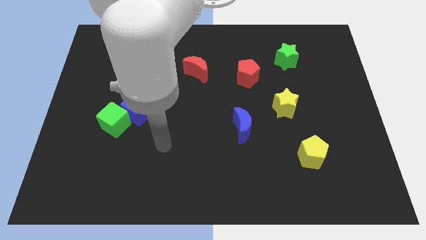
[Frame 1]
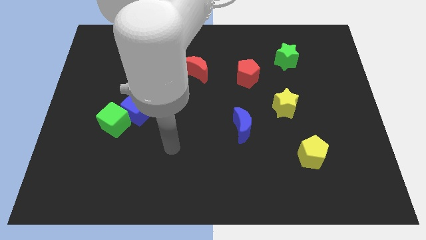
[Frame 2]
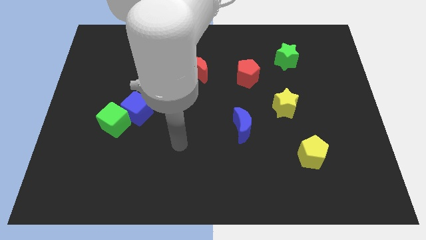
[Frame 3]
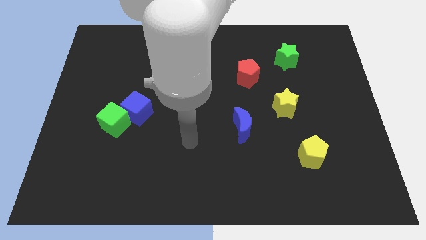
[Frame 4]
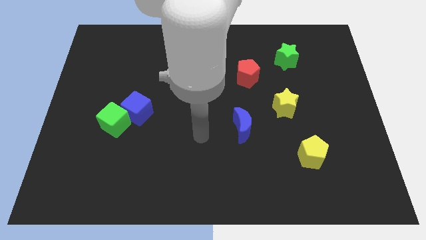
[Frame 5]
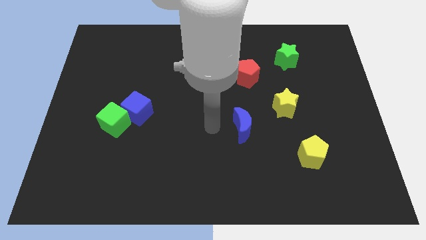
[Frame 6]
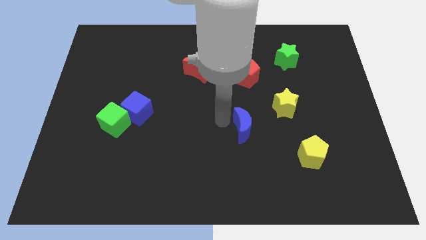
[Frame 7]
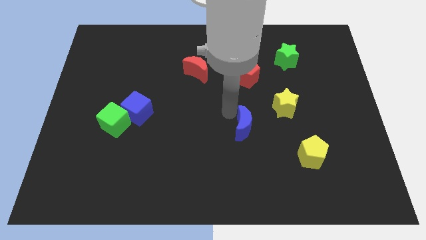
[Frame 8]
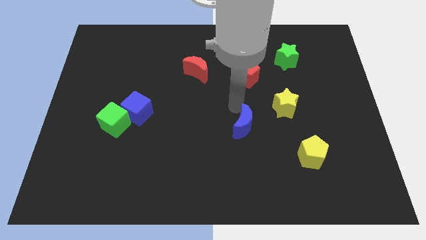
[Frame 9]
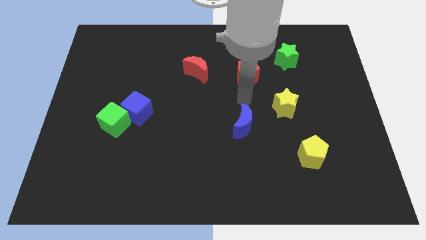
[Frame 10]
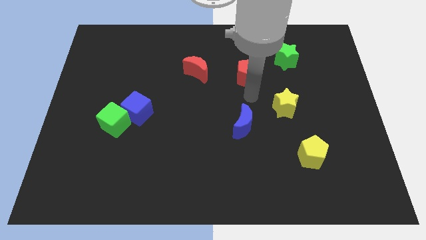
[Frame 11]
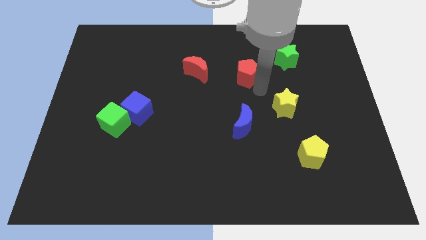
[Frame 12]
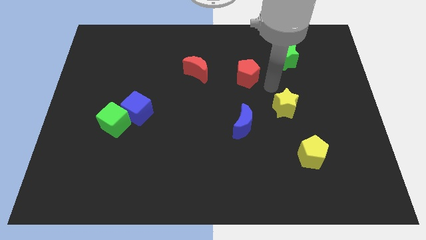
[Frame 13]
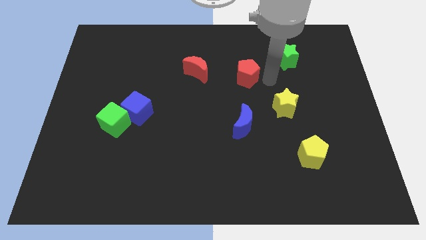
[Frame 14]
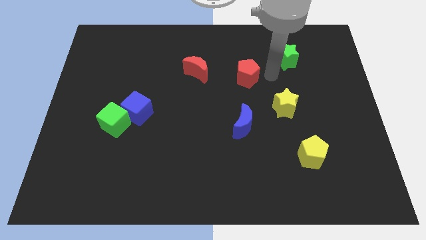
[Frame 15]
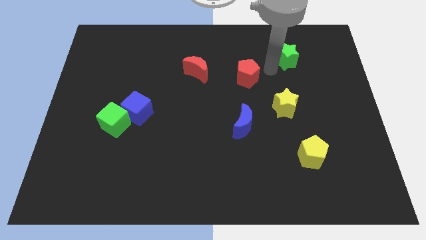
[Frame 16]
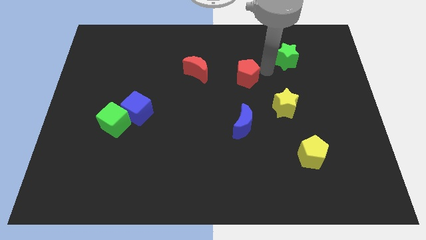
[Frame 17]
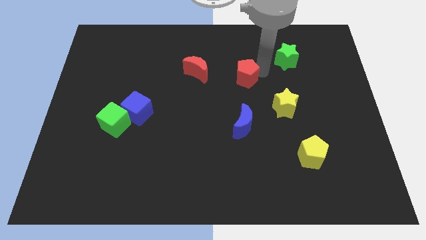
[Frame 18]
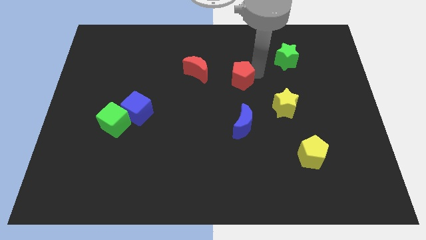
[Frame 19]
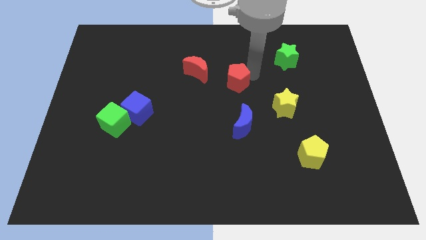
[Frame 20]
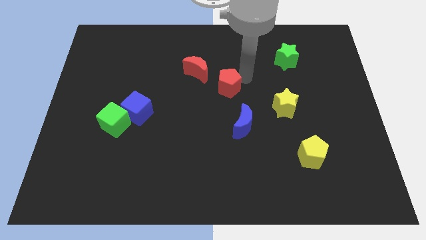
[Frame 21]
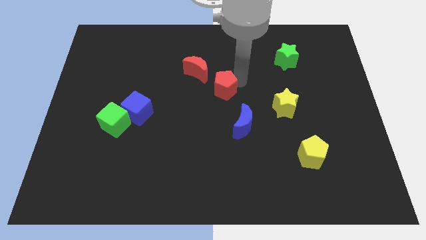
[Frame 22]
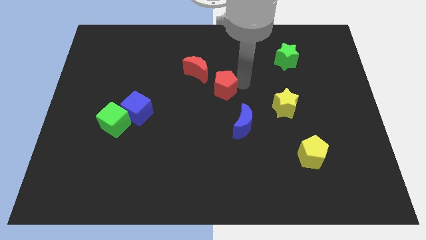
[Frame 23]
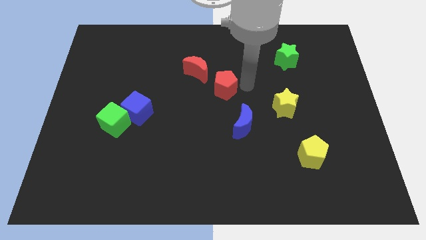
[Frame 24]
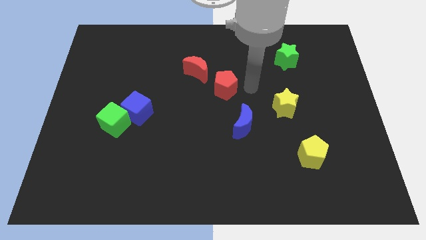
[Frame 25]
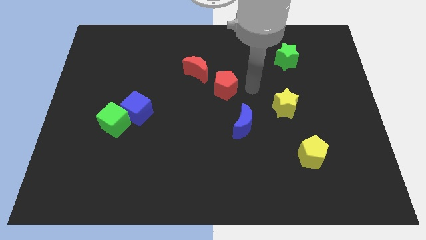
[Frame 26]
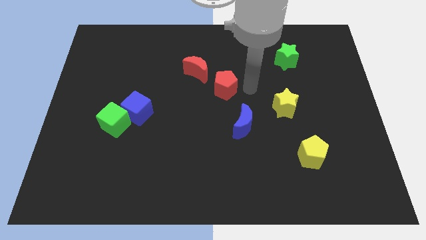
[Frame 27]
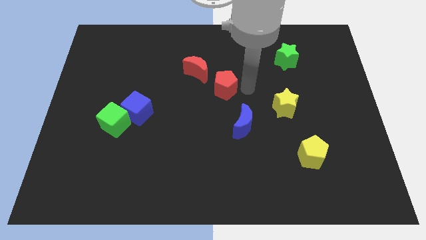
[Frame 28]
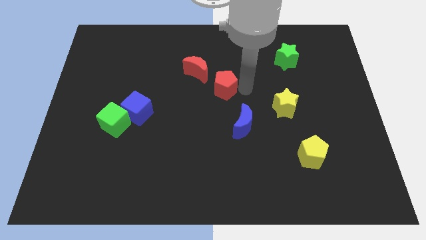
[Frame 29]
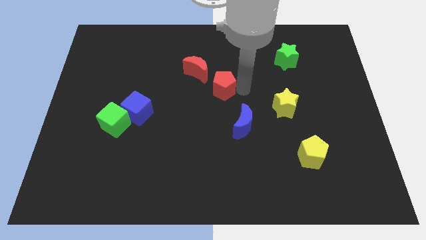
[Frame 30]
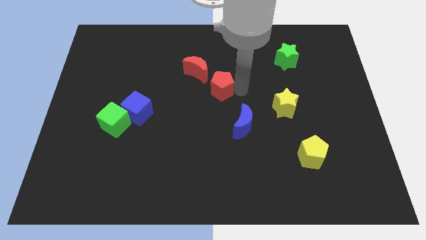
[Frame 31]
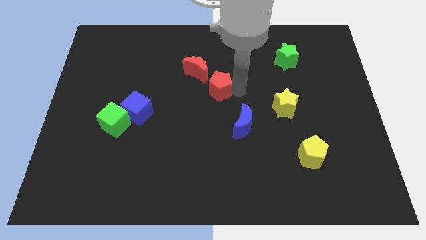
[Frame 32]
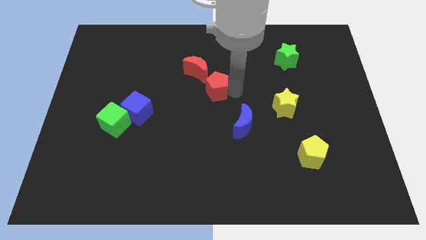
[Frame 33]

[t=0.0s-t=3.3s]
move the red pentagon to the left slightly

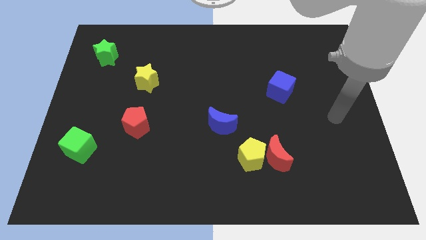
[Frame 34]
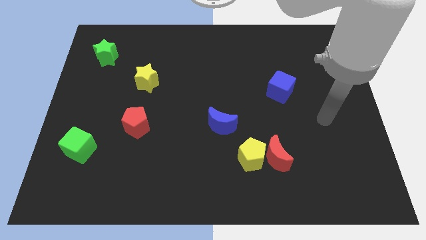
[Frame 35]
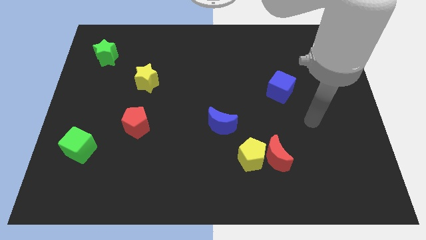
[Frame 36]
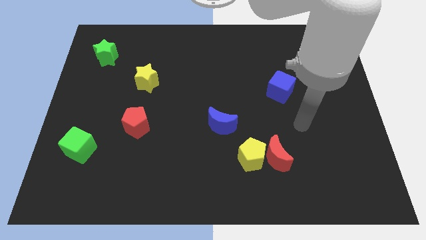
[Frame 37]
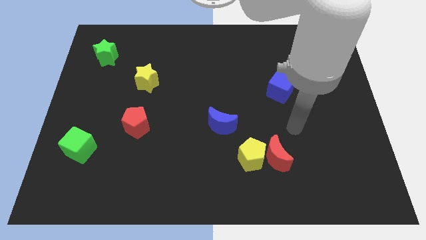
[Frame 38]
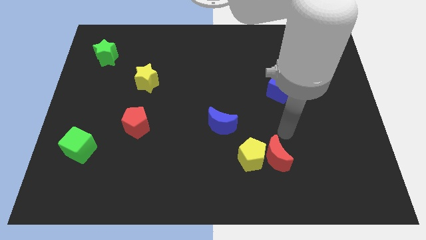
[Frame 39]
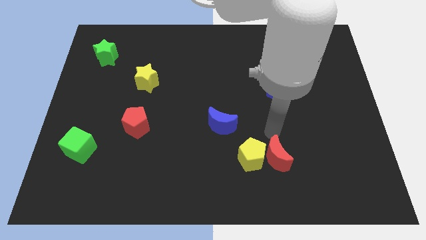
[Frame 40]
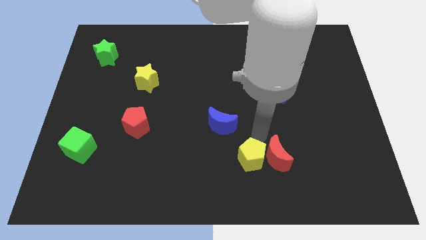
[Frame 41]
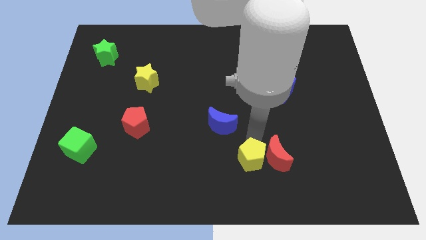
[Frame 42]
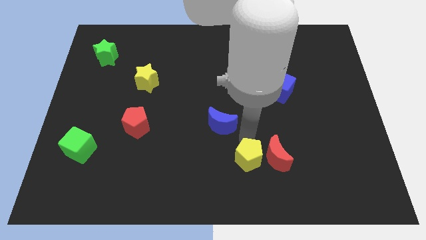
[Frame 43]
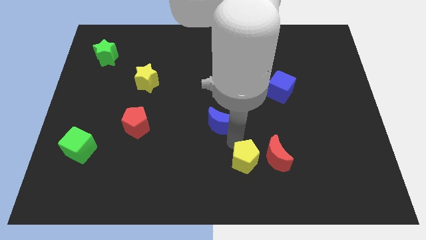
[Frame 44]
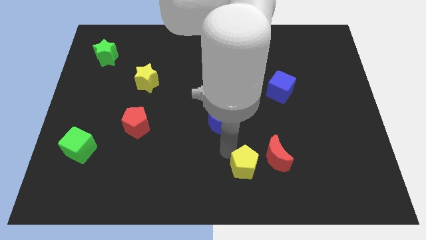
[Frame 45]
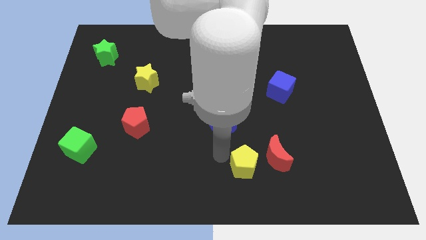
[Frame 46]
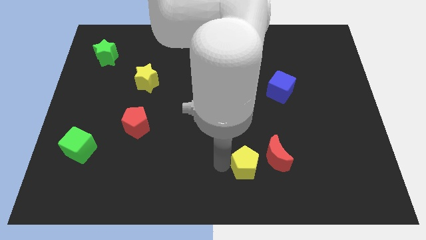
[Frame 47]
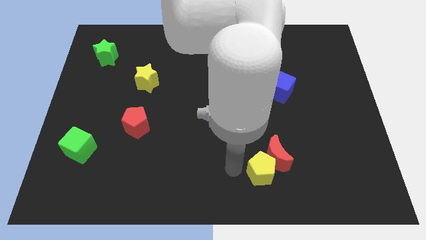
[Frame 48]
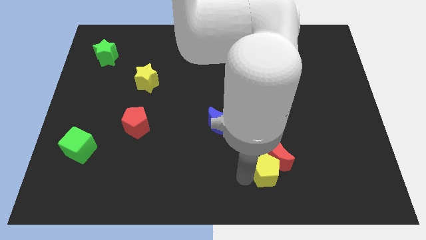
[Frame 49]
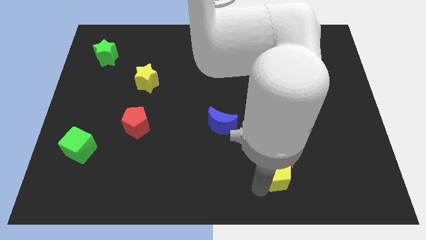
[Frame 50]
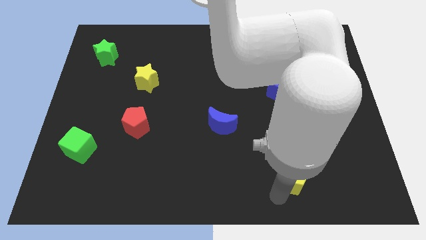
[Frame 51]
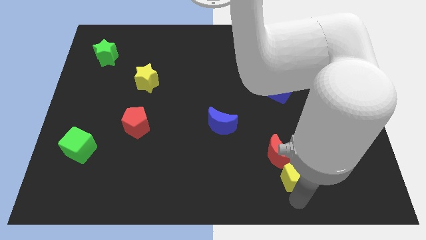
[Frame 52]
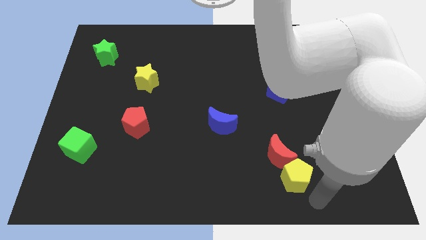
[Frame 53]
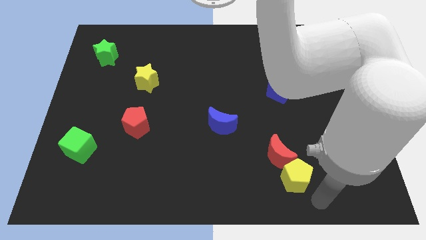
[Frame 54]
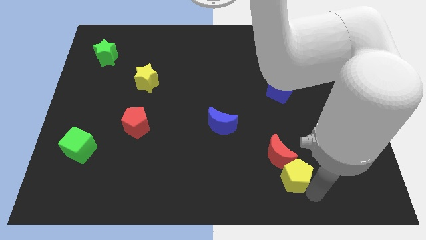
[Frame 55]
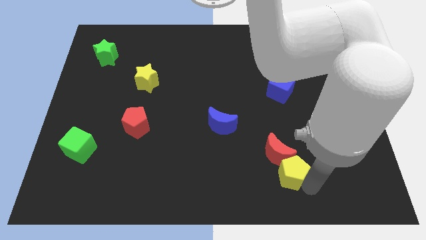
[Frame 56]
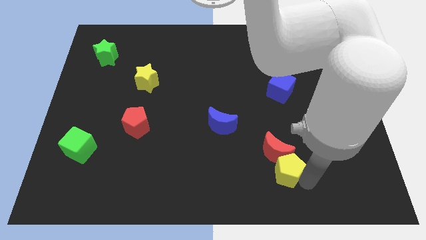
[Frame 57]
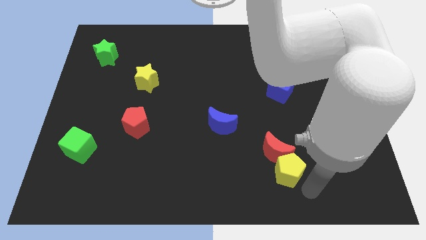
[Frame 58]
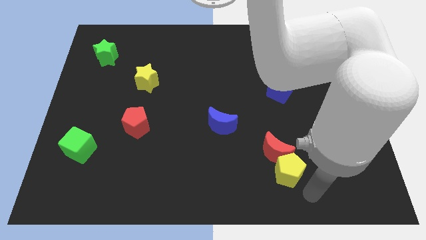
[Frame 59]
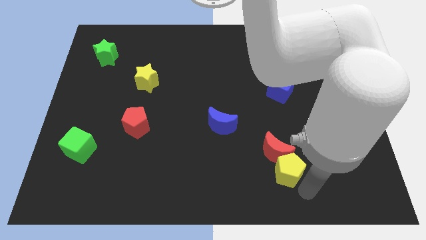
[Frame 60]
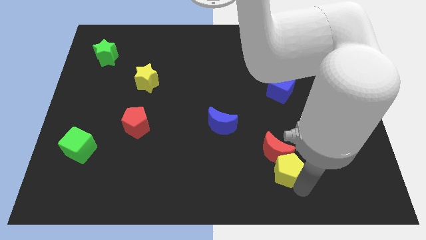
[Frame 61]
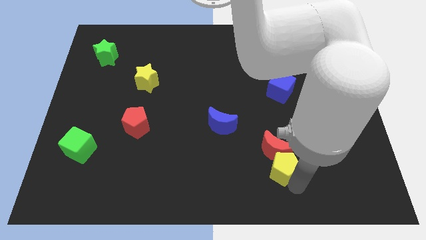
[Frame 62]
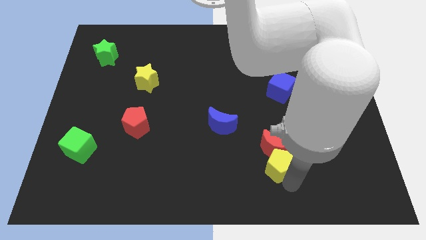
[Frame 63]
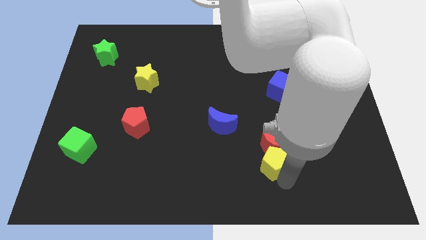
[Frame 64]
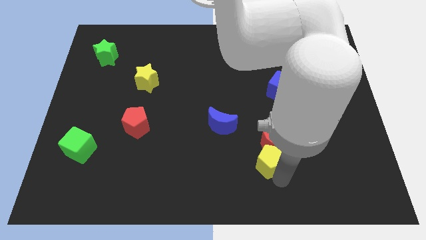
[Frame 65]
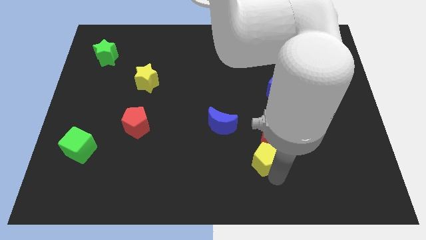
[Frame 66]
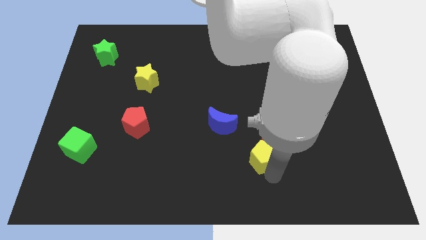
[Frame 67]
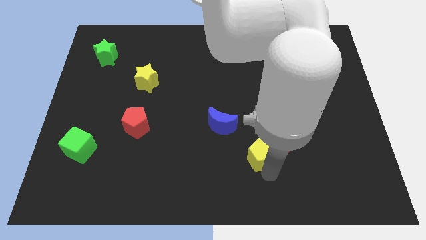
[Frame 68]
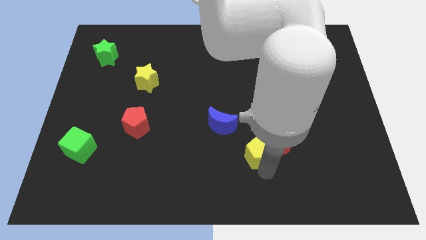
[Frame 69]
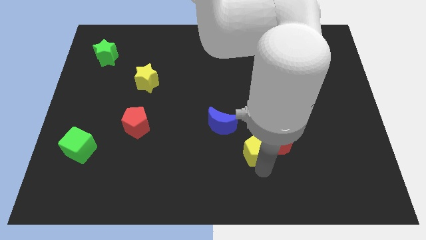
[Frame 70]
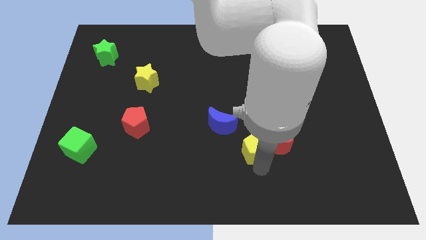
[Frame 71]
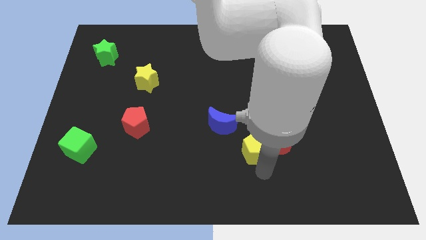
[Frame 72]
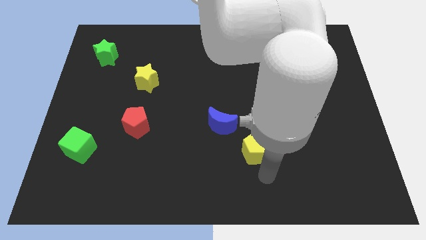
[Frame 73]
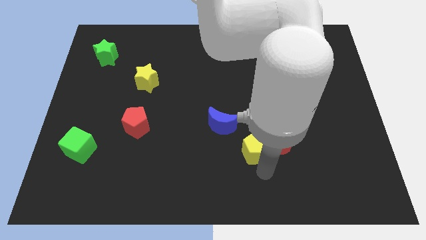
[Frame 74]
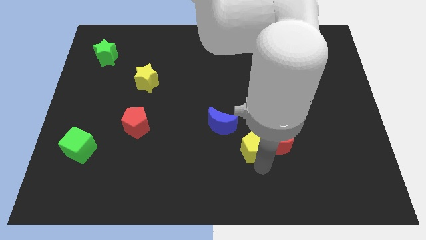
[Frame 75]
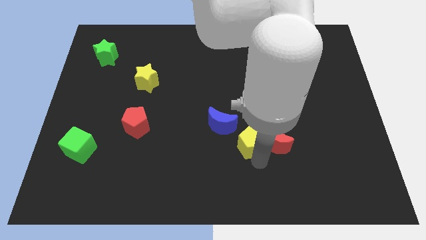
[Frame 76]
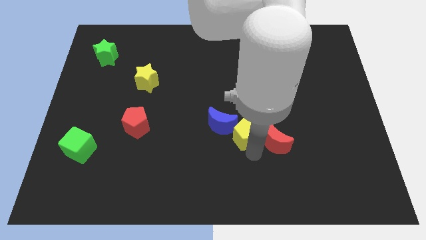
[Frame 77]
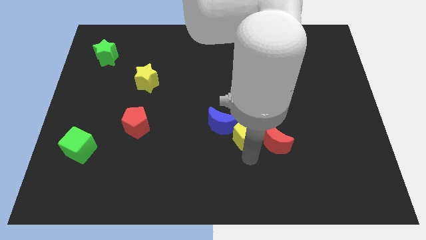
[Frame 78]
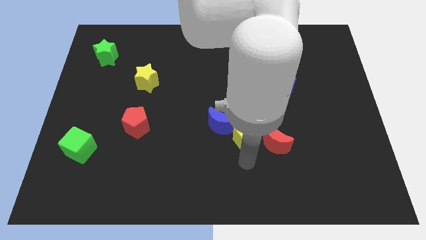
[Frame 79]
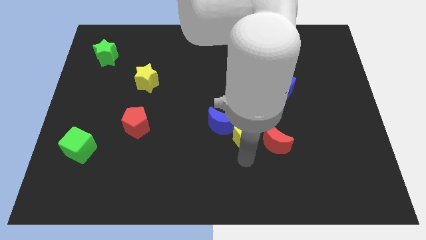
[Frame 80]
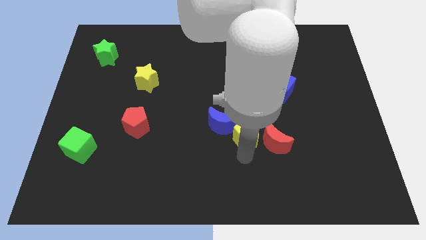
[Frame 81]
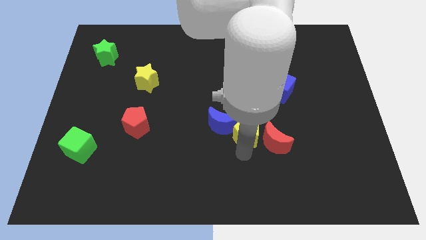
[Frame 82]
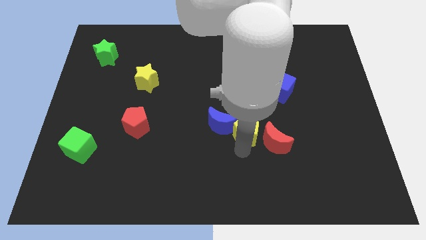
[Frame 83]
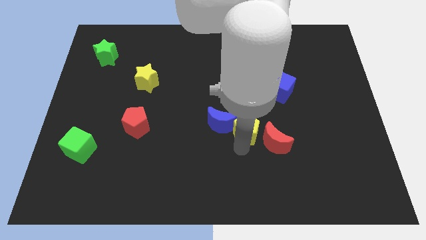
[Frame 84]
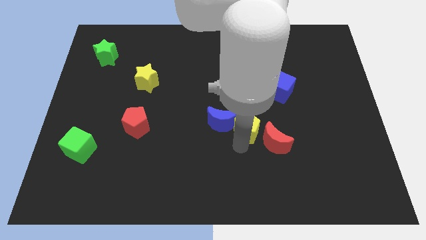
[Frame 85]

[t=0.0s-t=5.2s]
move the yellow pentagon up slightly
